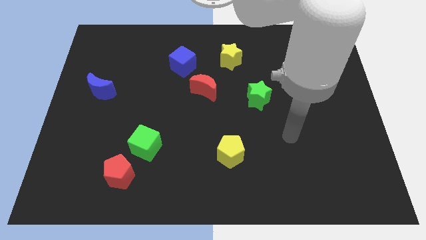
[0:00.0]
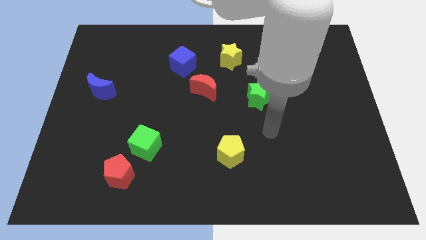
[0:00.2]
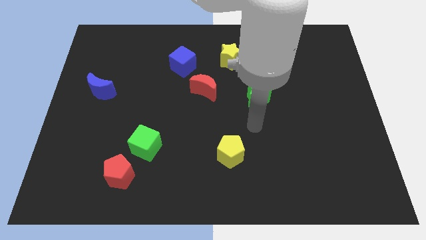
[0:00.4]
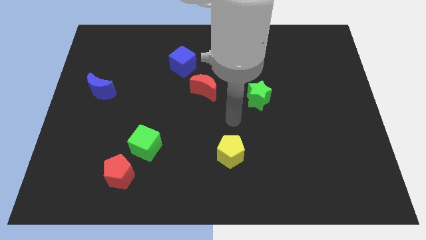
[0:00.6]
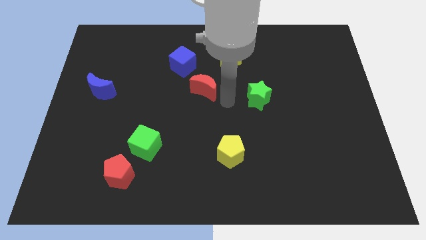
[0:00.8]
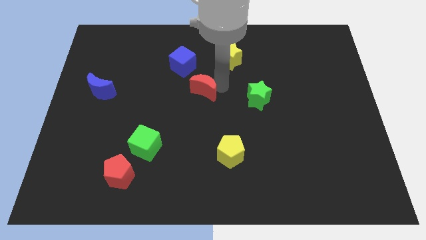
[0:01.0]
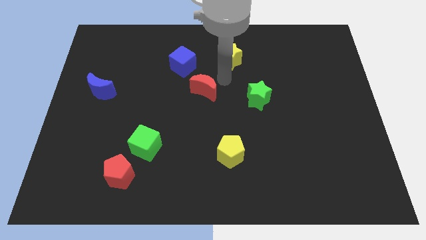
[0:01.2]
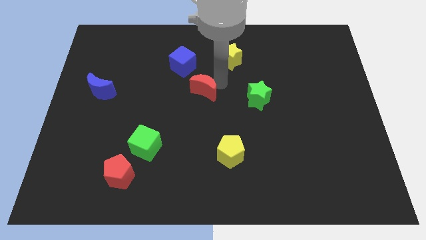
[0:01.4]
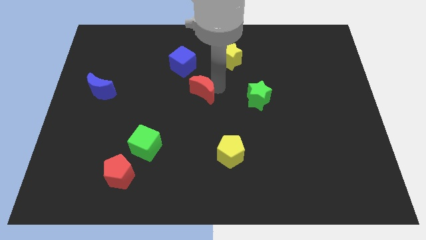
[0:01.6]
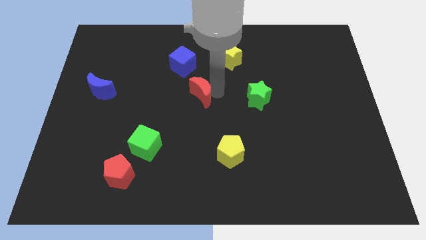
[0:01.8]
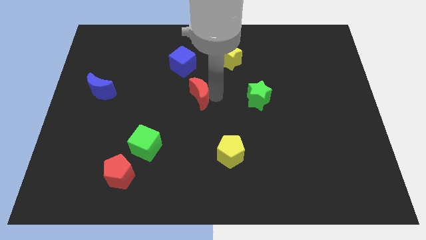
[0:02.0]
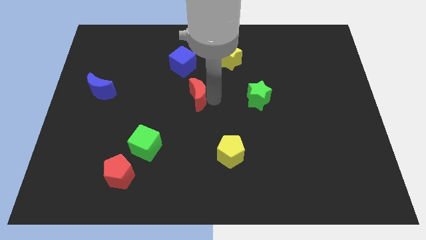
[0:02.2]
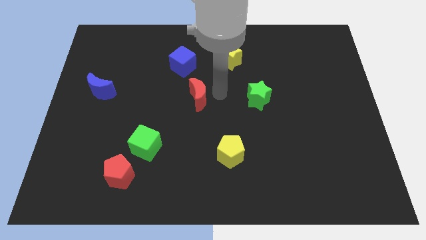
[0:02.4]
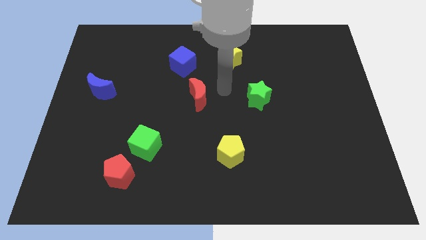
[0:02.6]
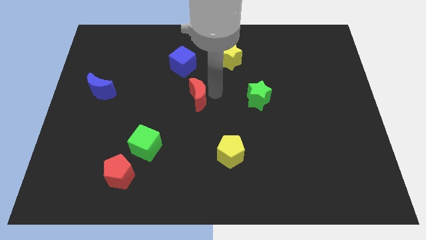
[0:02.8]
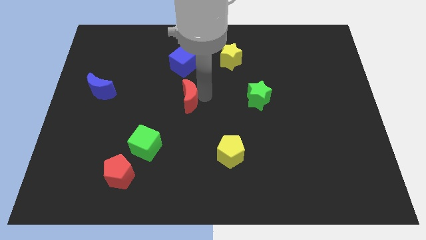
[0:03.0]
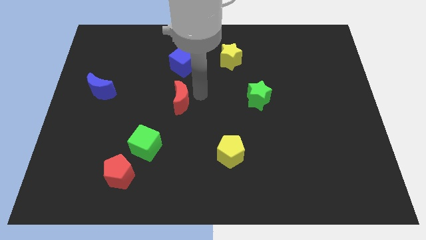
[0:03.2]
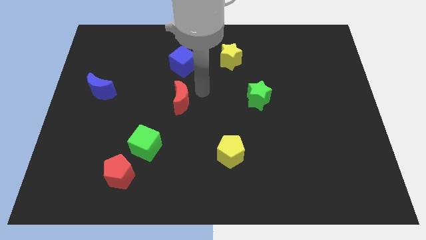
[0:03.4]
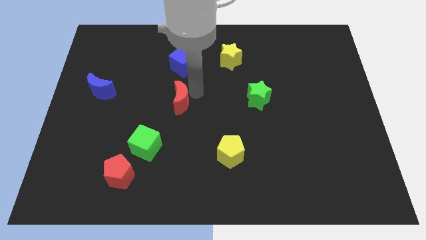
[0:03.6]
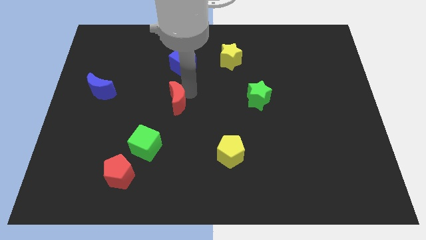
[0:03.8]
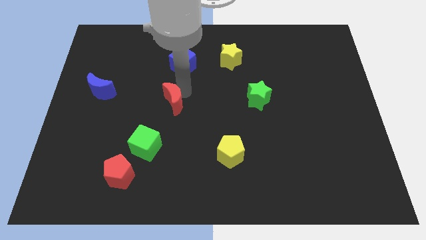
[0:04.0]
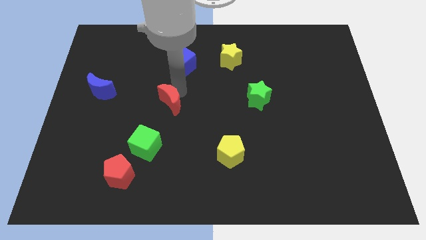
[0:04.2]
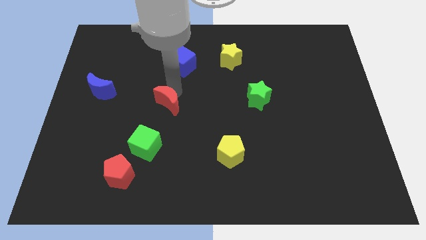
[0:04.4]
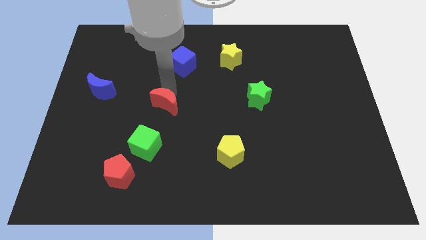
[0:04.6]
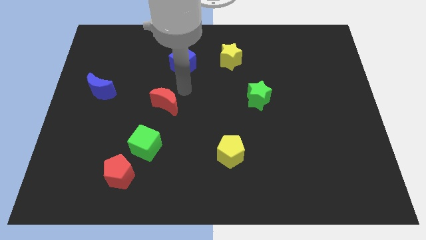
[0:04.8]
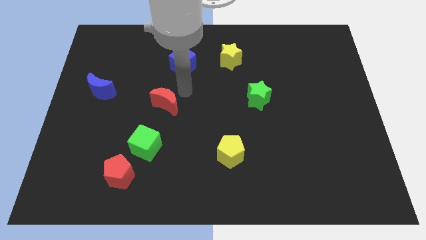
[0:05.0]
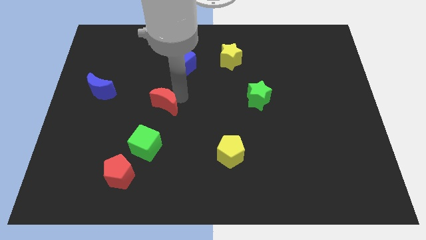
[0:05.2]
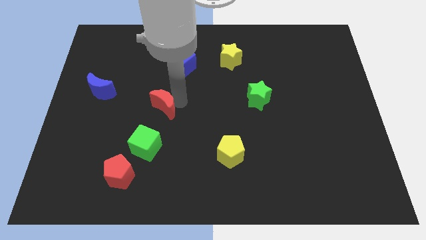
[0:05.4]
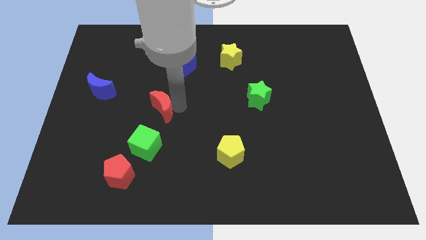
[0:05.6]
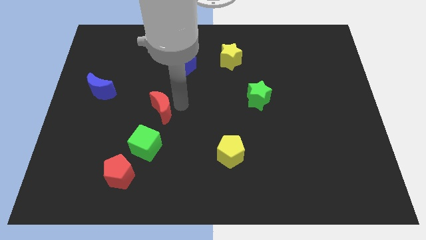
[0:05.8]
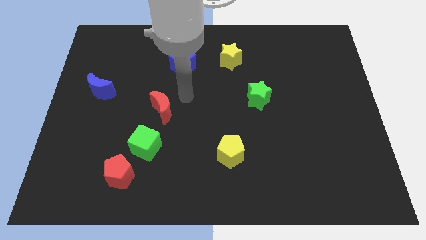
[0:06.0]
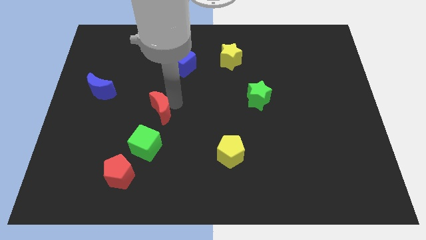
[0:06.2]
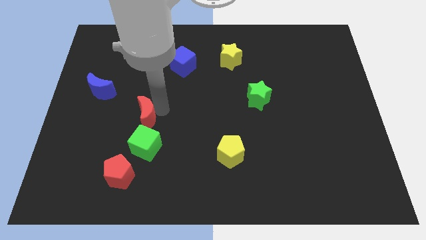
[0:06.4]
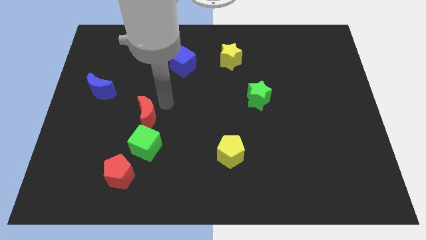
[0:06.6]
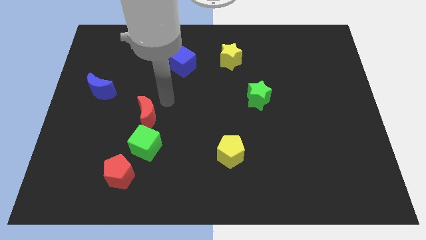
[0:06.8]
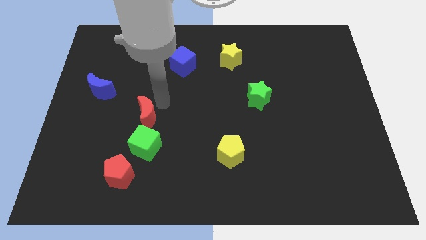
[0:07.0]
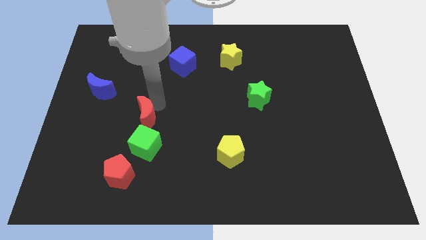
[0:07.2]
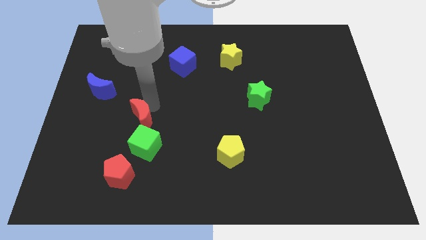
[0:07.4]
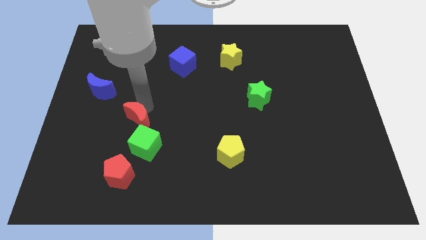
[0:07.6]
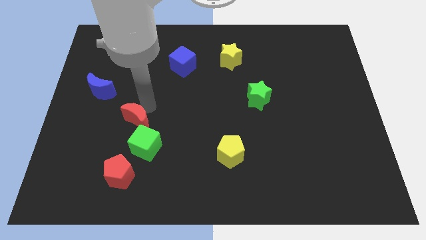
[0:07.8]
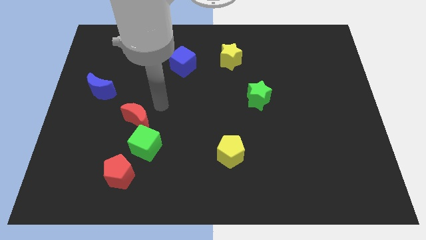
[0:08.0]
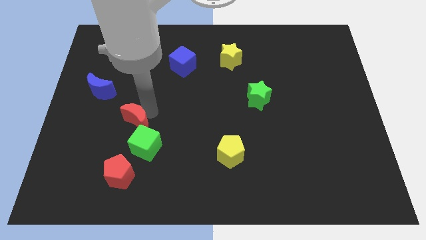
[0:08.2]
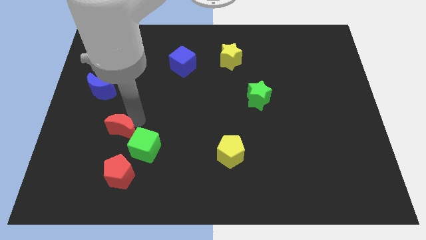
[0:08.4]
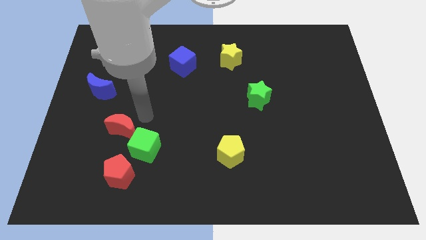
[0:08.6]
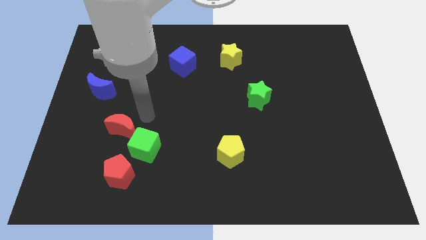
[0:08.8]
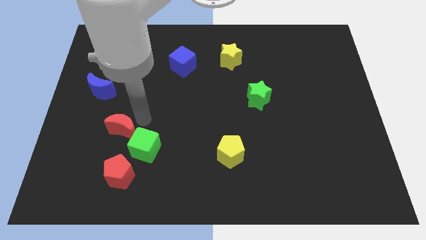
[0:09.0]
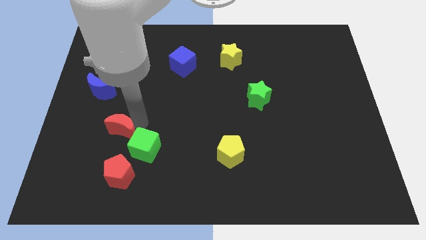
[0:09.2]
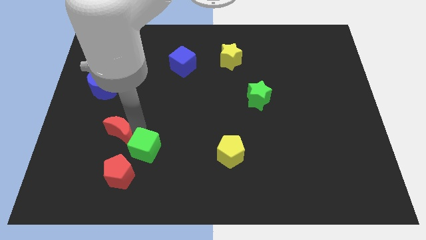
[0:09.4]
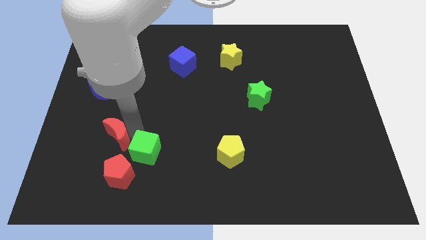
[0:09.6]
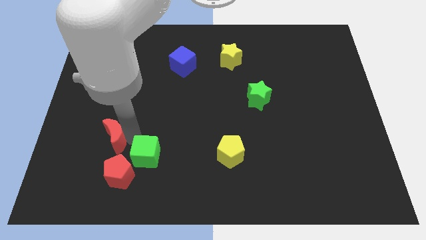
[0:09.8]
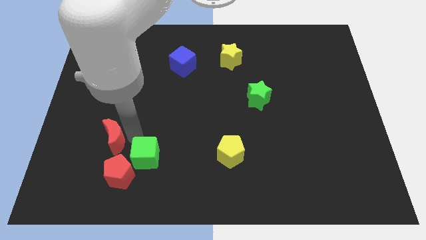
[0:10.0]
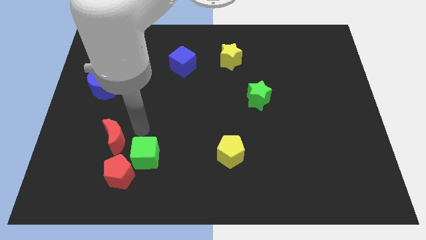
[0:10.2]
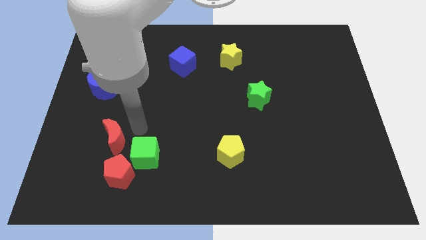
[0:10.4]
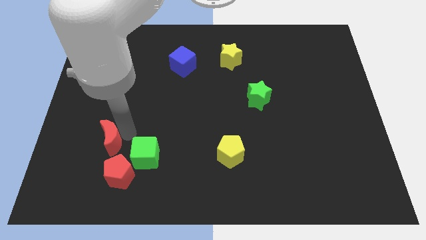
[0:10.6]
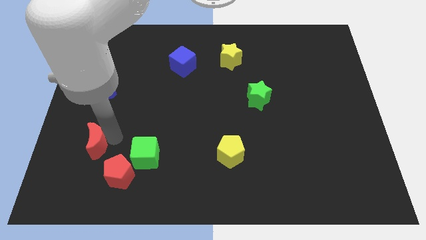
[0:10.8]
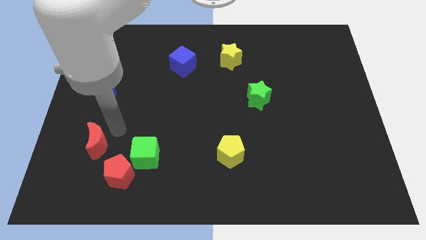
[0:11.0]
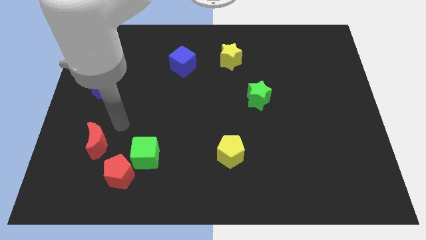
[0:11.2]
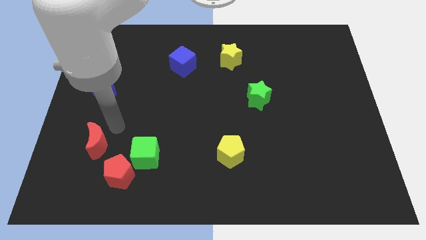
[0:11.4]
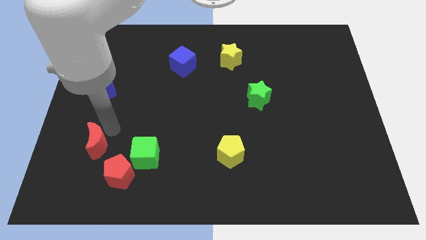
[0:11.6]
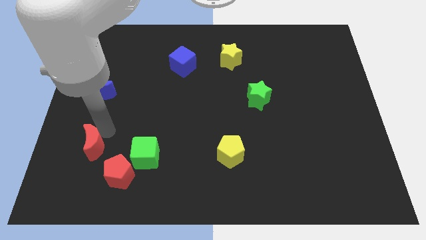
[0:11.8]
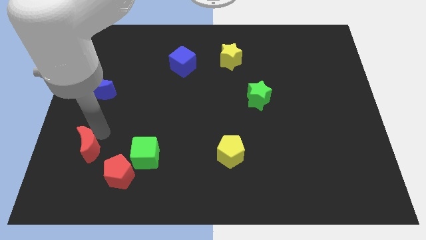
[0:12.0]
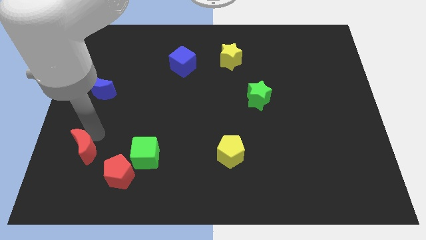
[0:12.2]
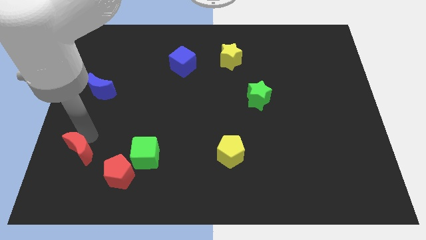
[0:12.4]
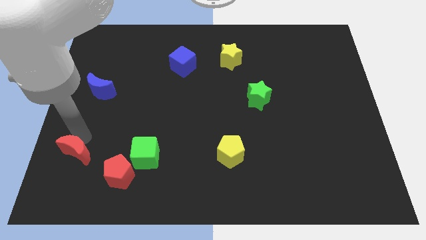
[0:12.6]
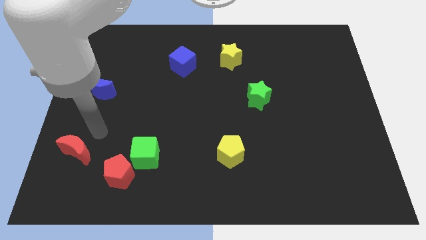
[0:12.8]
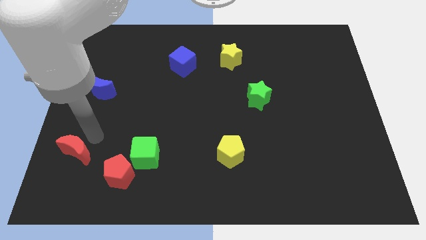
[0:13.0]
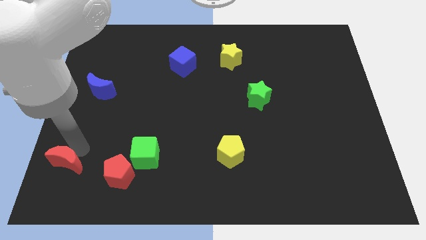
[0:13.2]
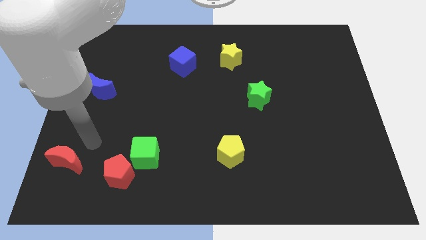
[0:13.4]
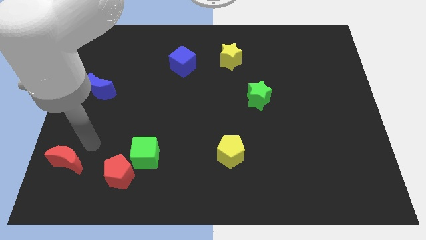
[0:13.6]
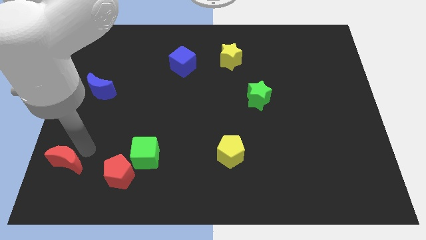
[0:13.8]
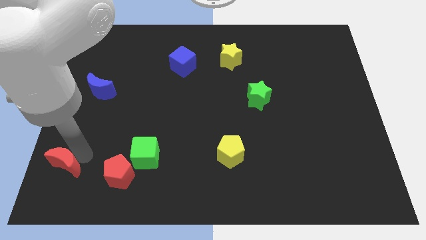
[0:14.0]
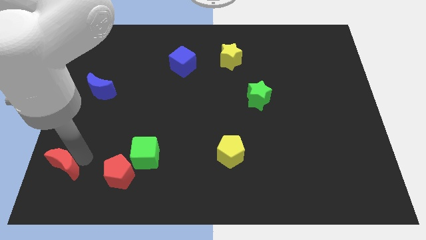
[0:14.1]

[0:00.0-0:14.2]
slide the red moon to the lower left corner
